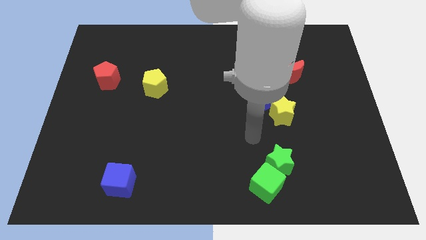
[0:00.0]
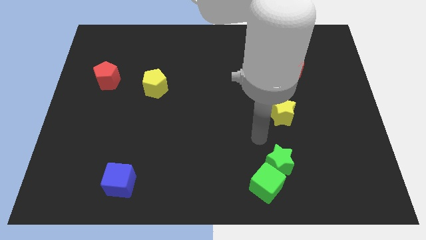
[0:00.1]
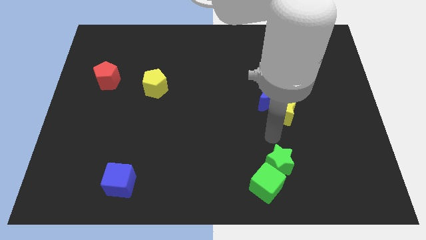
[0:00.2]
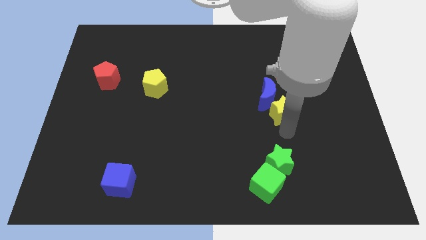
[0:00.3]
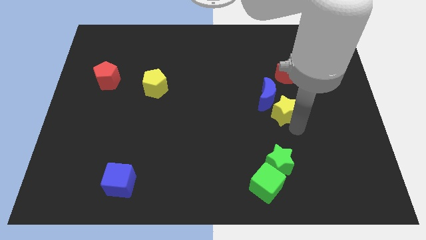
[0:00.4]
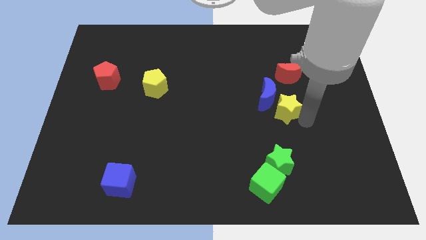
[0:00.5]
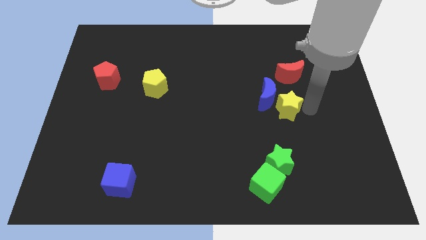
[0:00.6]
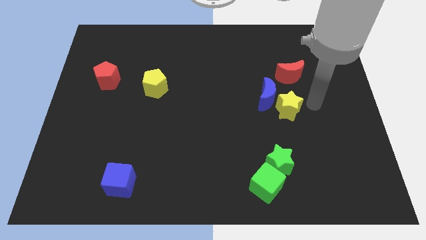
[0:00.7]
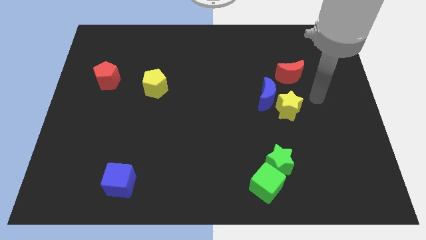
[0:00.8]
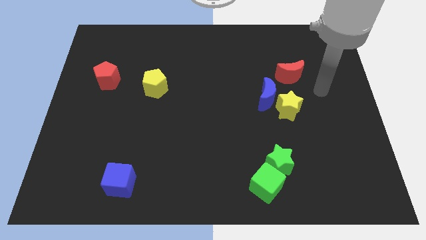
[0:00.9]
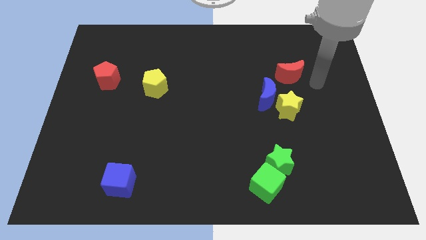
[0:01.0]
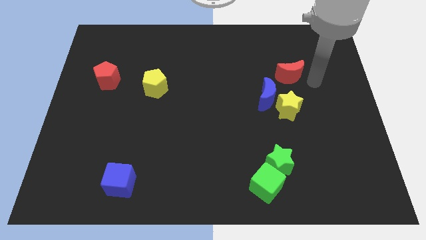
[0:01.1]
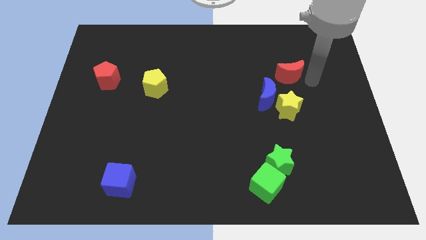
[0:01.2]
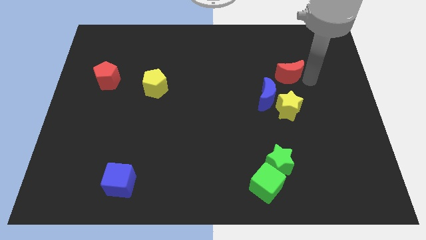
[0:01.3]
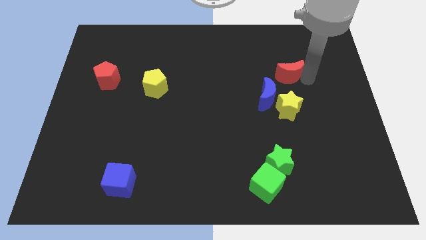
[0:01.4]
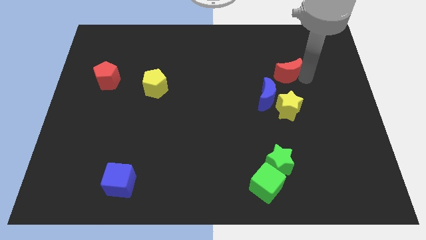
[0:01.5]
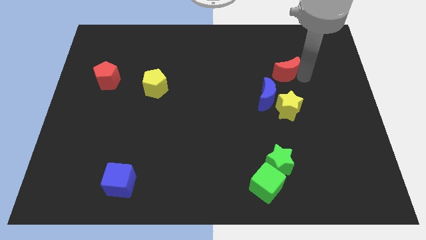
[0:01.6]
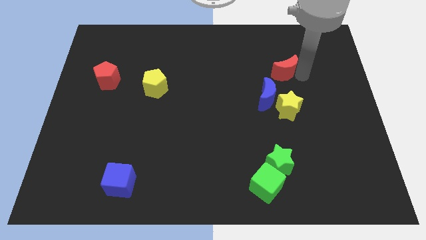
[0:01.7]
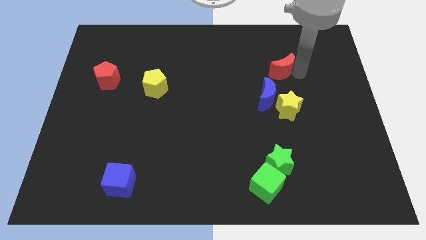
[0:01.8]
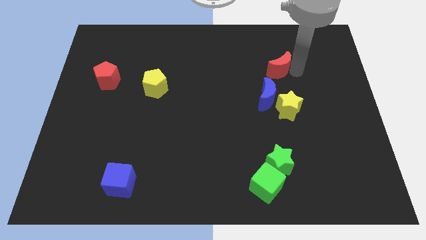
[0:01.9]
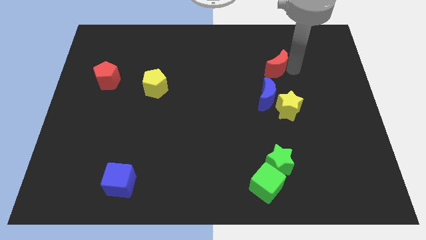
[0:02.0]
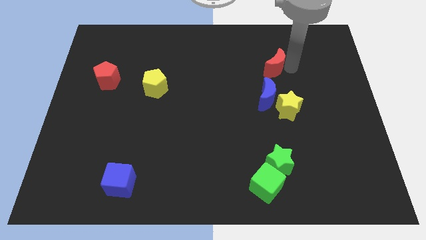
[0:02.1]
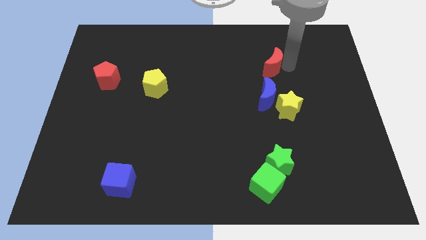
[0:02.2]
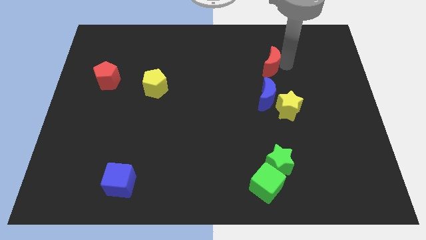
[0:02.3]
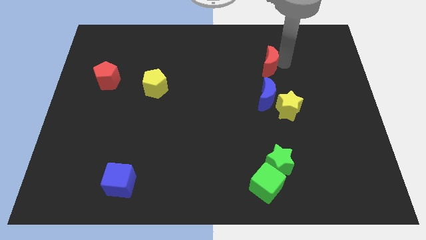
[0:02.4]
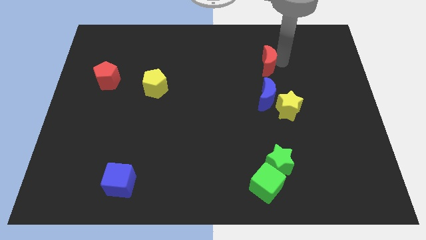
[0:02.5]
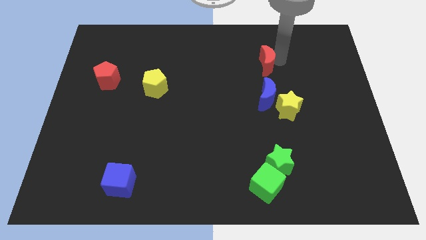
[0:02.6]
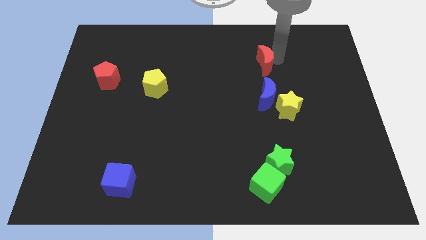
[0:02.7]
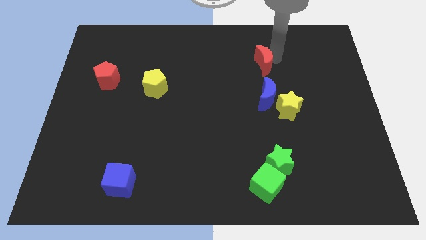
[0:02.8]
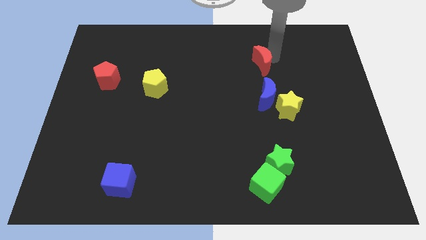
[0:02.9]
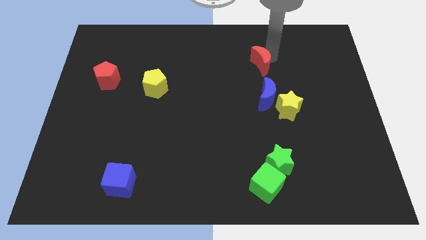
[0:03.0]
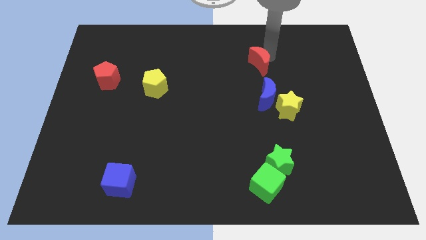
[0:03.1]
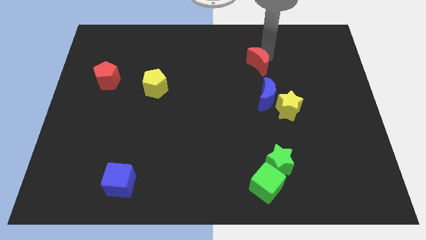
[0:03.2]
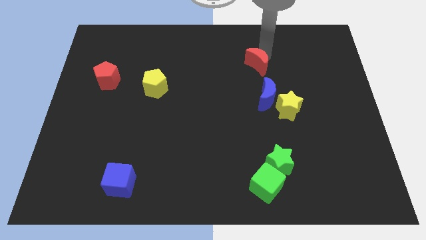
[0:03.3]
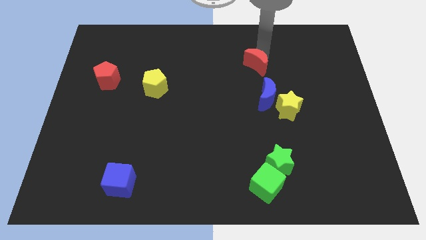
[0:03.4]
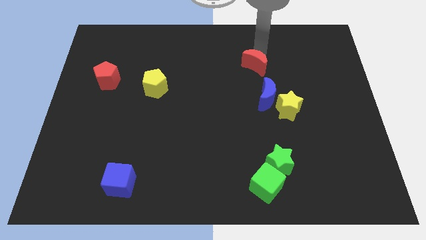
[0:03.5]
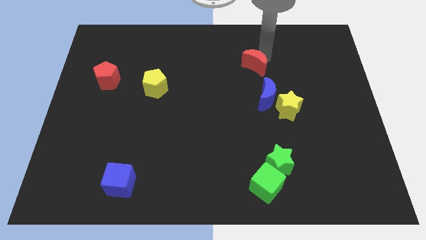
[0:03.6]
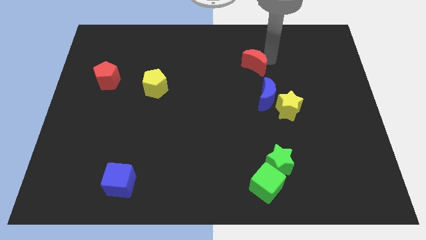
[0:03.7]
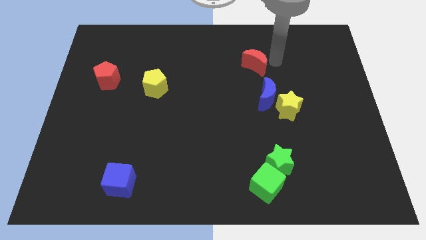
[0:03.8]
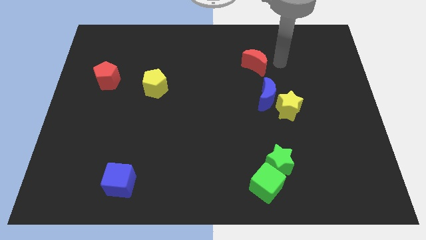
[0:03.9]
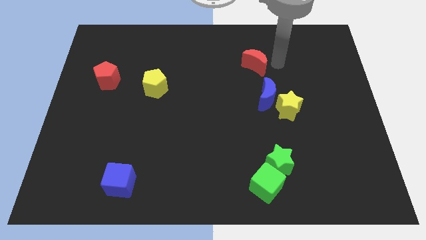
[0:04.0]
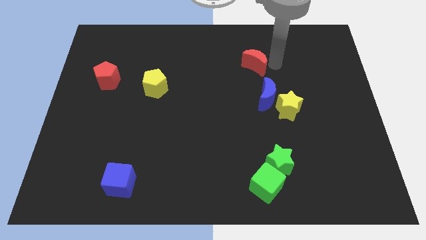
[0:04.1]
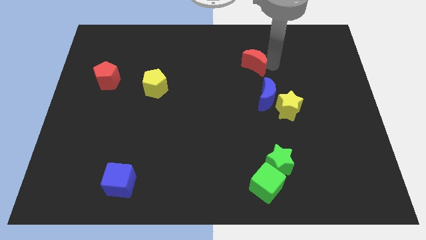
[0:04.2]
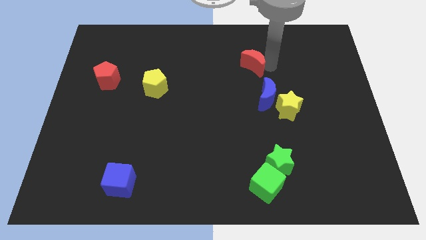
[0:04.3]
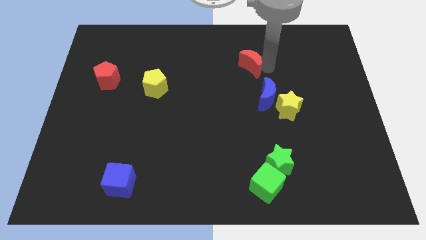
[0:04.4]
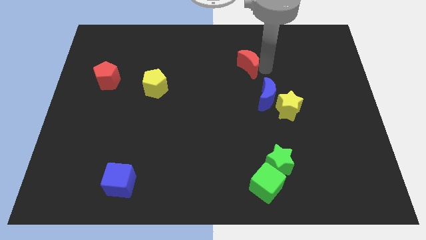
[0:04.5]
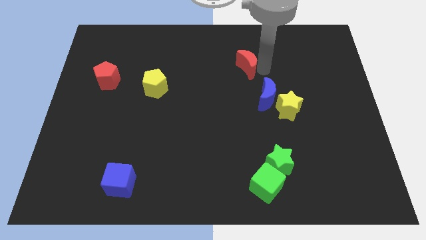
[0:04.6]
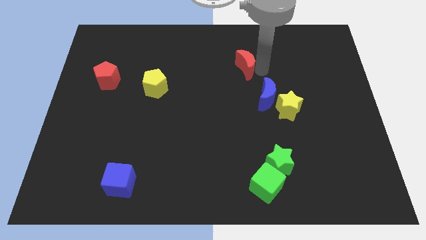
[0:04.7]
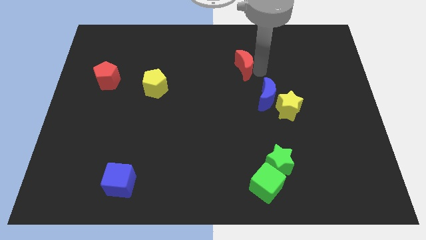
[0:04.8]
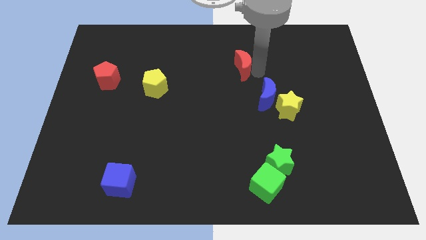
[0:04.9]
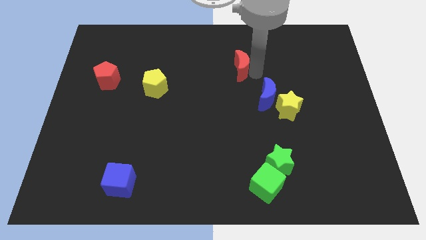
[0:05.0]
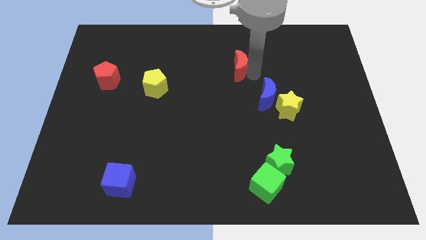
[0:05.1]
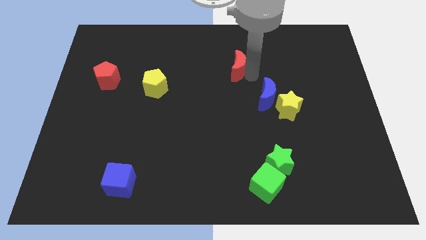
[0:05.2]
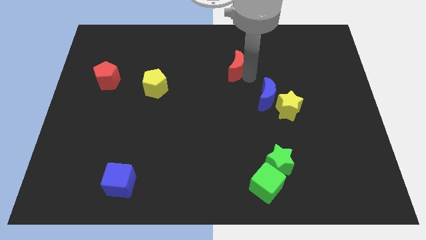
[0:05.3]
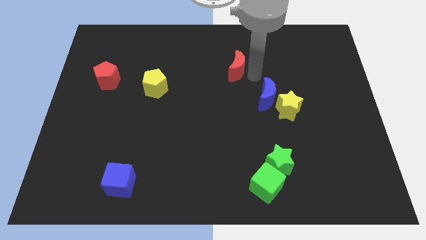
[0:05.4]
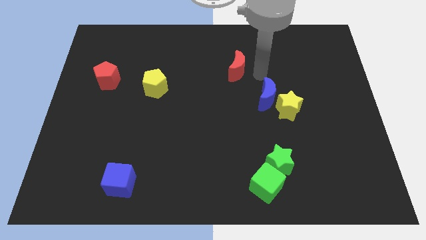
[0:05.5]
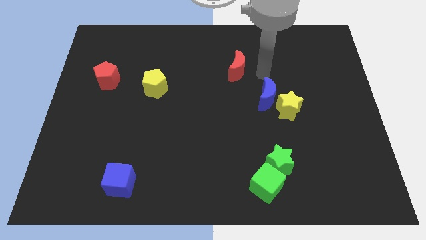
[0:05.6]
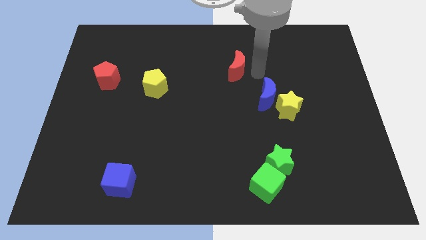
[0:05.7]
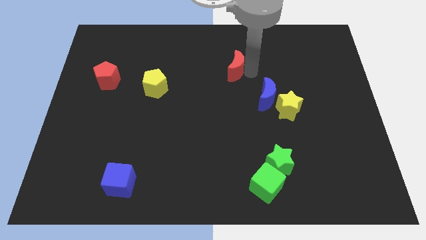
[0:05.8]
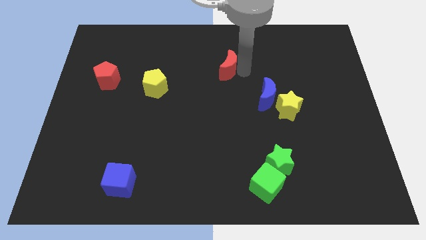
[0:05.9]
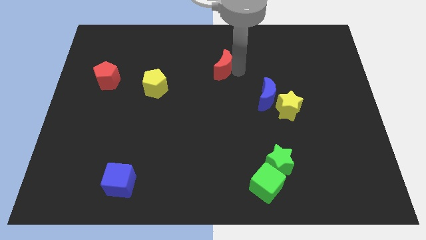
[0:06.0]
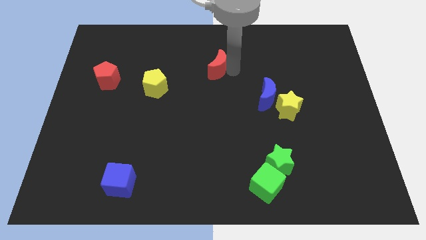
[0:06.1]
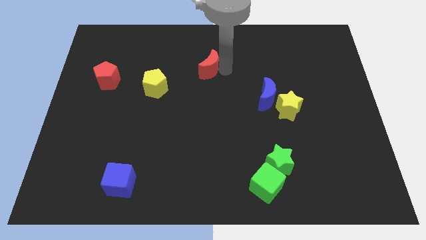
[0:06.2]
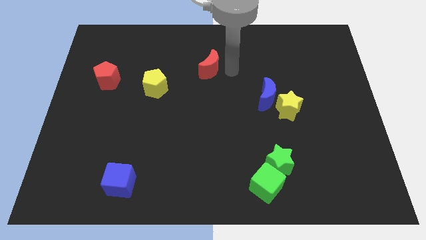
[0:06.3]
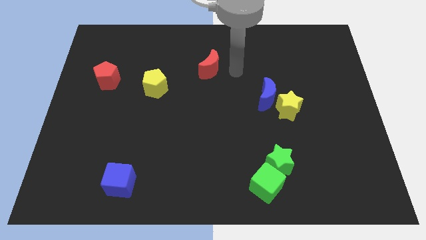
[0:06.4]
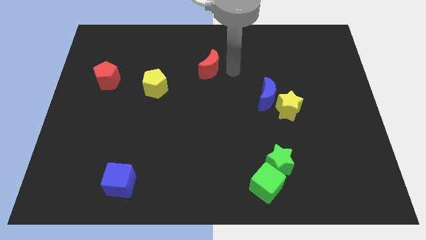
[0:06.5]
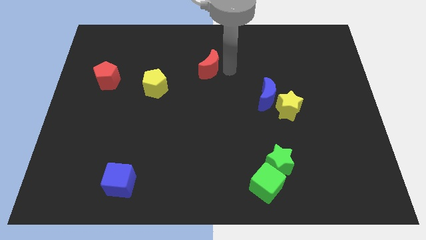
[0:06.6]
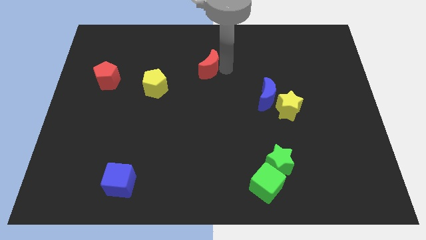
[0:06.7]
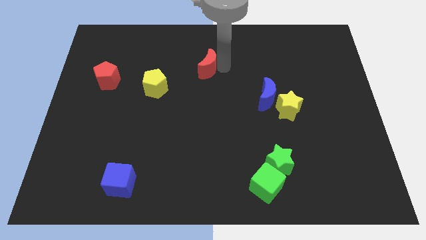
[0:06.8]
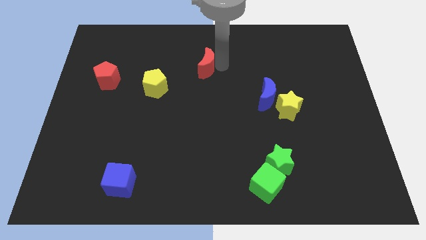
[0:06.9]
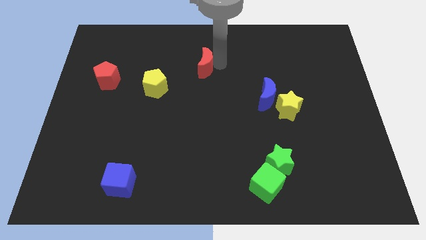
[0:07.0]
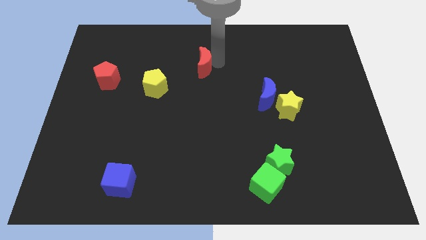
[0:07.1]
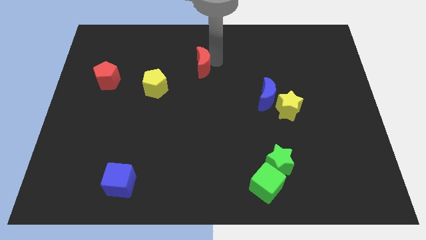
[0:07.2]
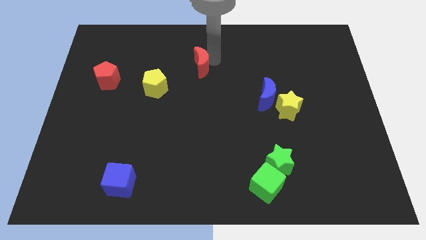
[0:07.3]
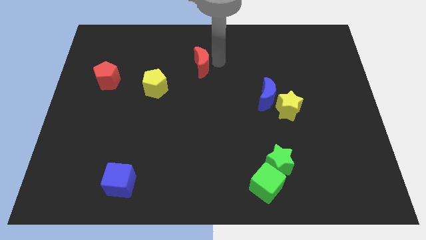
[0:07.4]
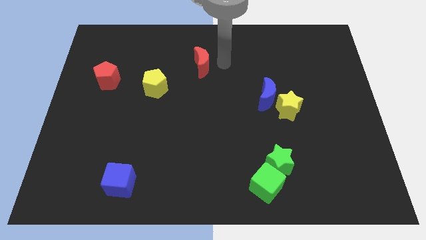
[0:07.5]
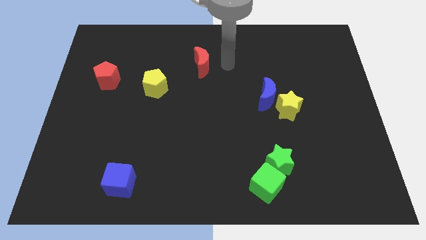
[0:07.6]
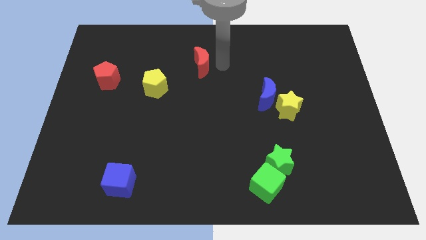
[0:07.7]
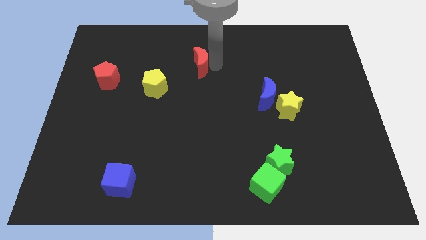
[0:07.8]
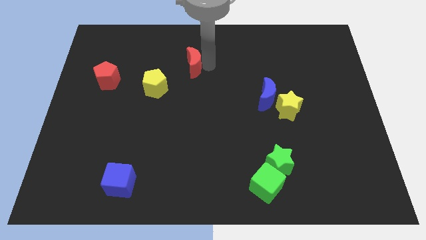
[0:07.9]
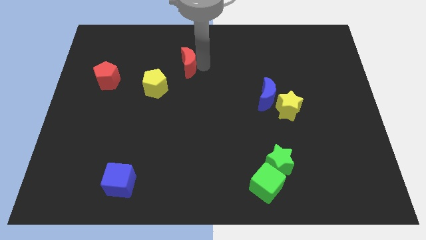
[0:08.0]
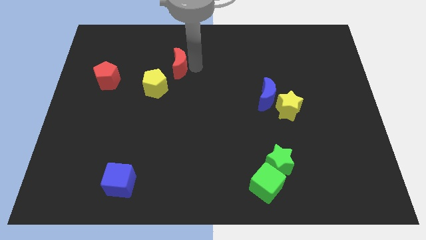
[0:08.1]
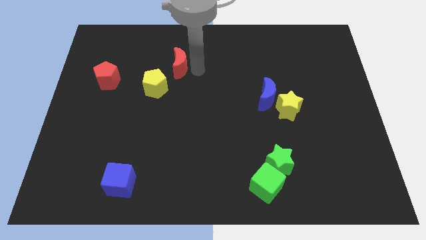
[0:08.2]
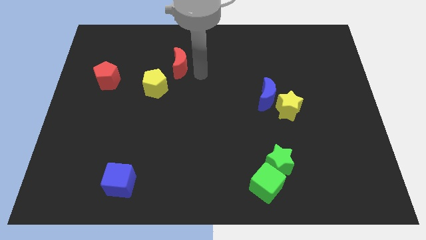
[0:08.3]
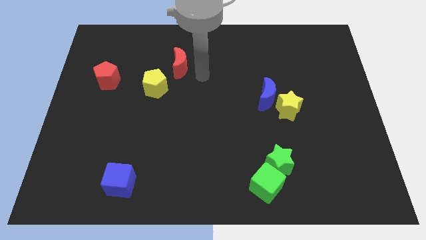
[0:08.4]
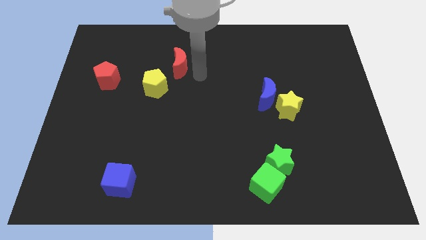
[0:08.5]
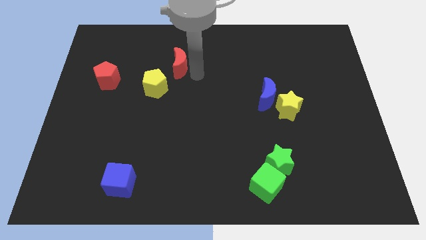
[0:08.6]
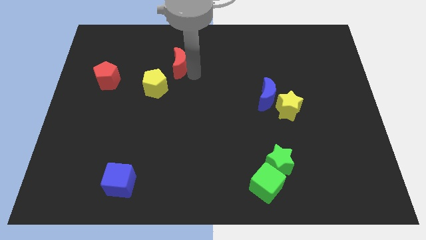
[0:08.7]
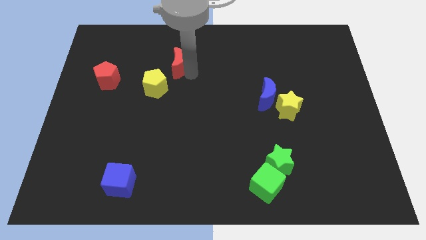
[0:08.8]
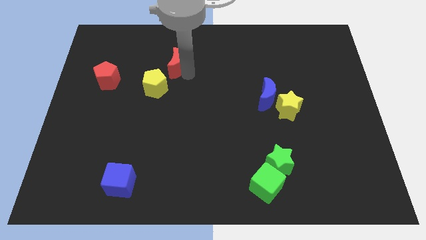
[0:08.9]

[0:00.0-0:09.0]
push the red moon to the top of the yellow pentagon
